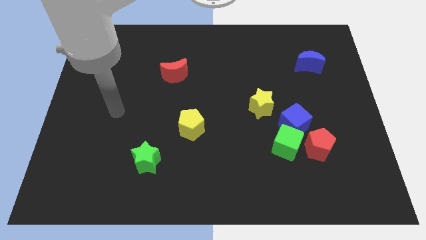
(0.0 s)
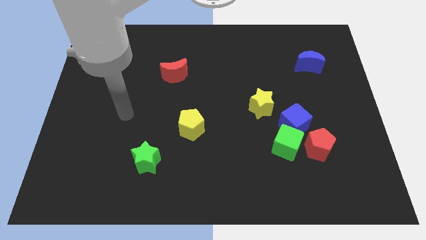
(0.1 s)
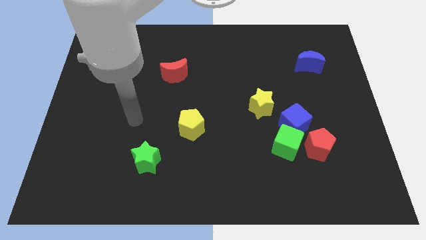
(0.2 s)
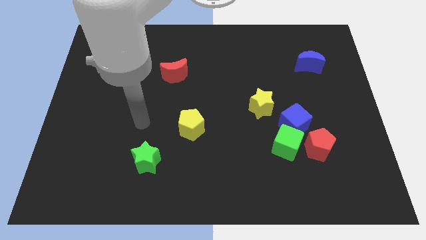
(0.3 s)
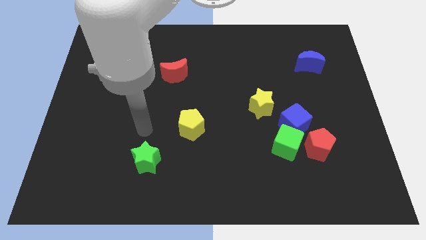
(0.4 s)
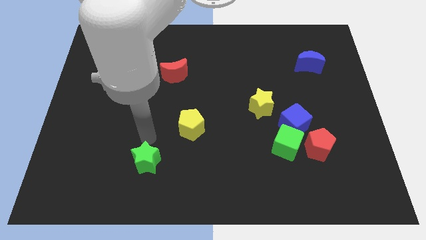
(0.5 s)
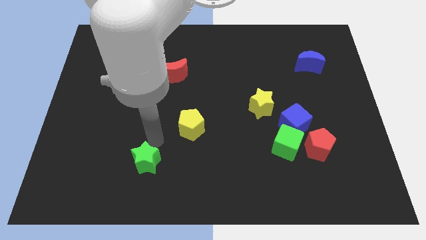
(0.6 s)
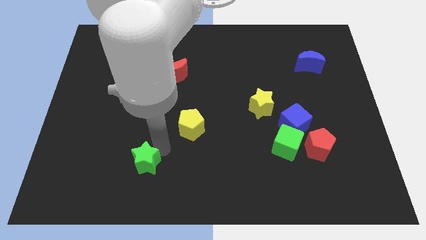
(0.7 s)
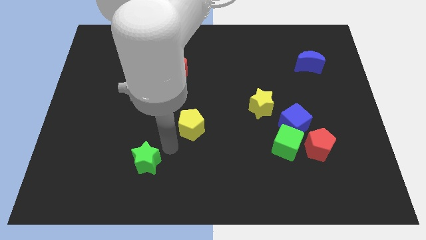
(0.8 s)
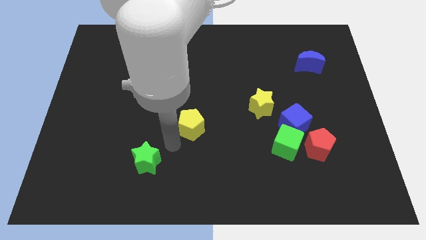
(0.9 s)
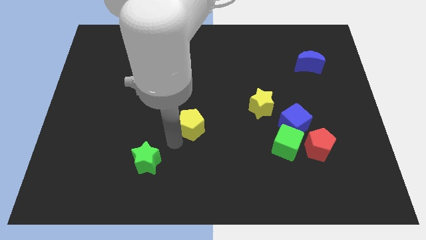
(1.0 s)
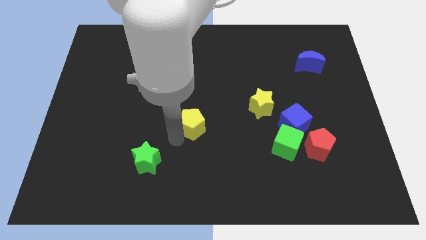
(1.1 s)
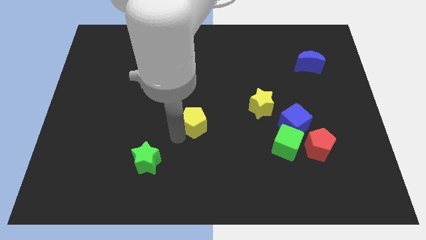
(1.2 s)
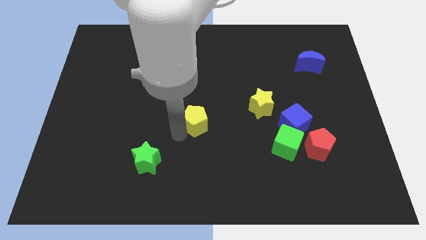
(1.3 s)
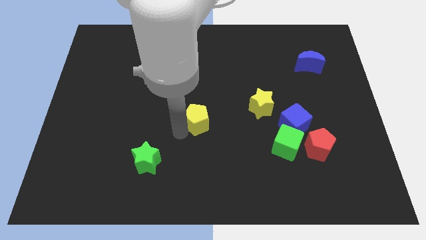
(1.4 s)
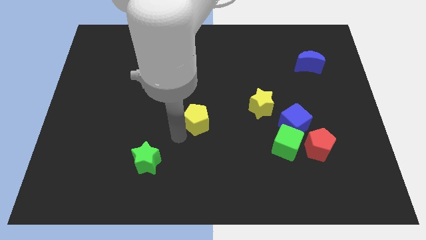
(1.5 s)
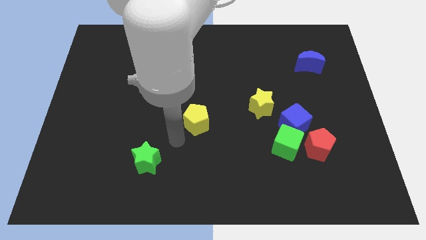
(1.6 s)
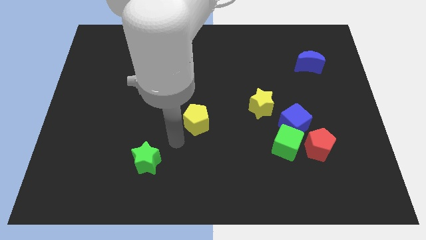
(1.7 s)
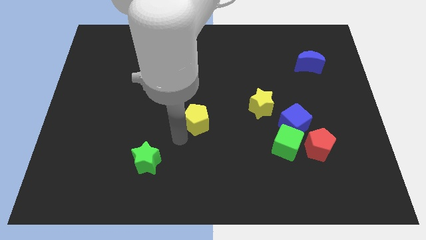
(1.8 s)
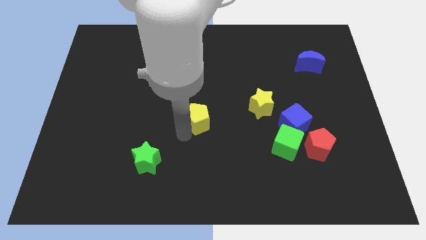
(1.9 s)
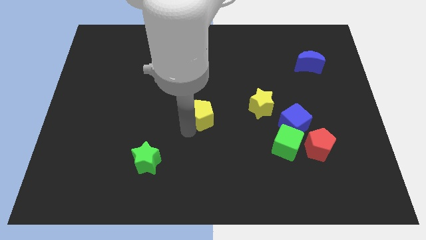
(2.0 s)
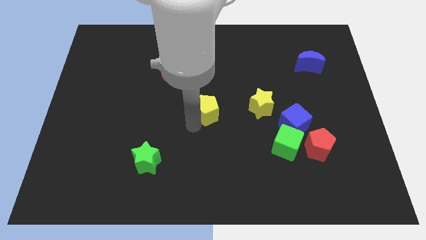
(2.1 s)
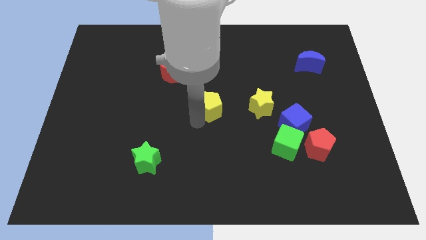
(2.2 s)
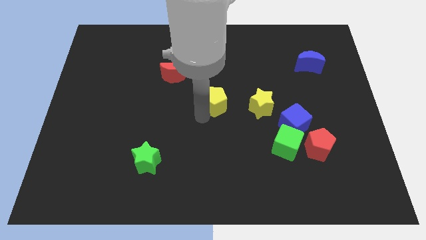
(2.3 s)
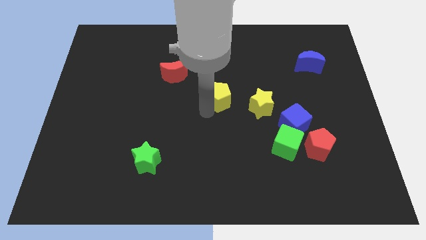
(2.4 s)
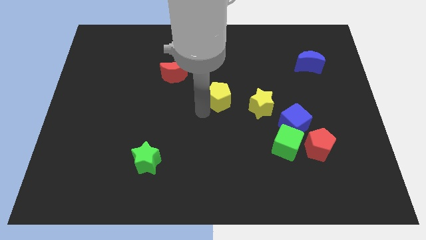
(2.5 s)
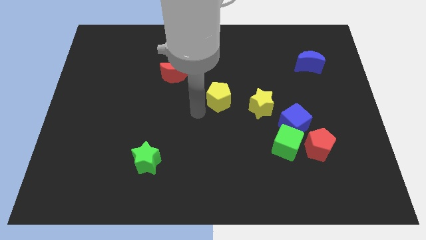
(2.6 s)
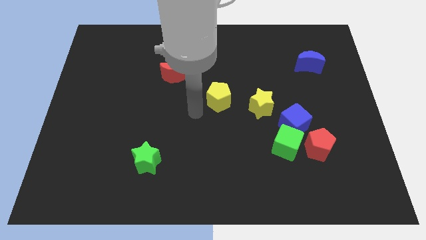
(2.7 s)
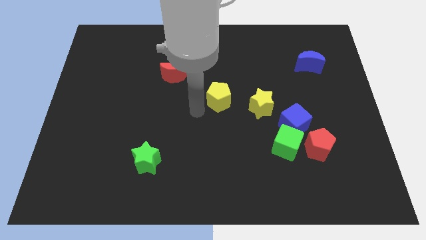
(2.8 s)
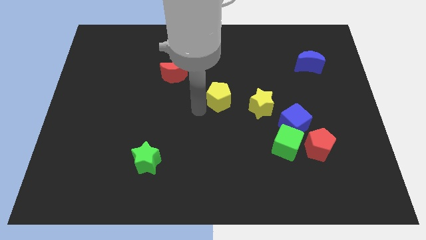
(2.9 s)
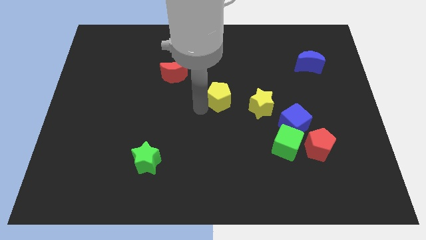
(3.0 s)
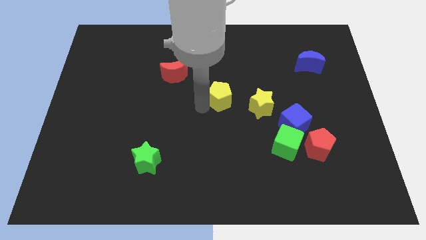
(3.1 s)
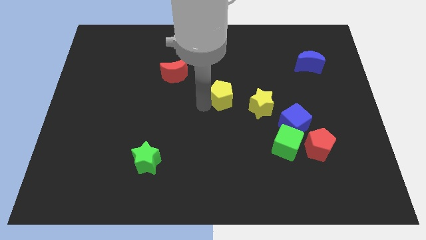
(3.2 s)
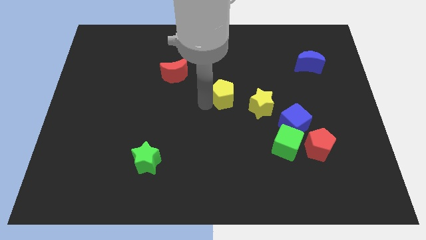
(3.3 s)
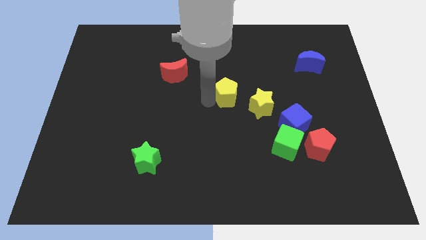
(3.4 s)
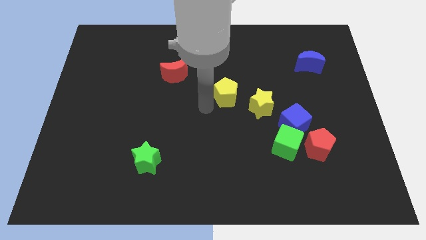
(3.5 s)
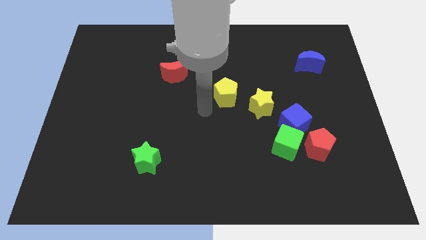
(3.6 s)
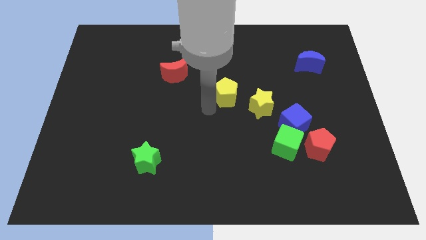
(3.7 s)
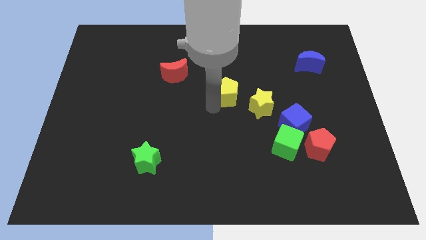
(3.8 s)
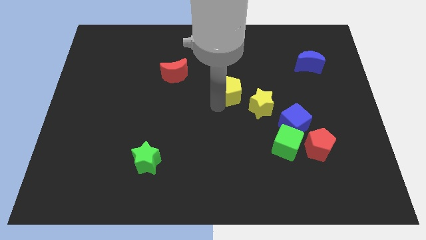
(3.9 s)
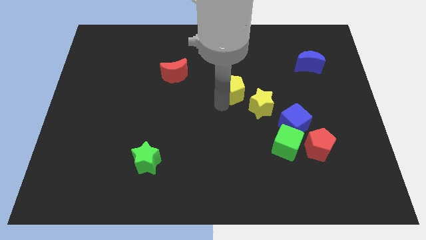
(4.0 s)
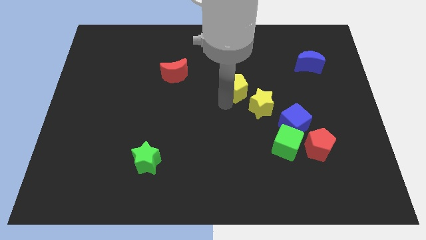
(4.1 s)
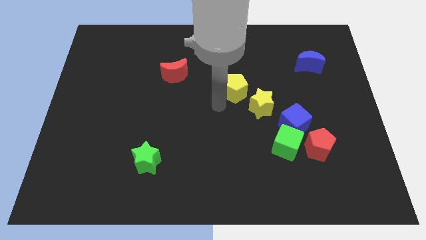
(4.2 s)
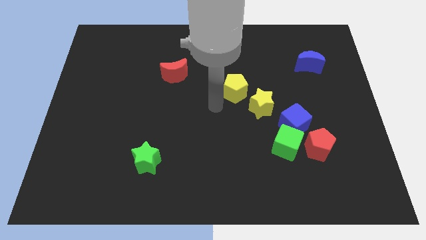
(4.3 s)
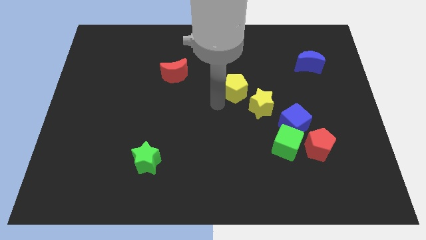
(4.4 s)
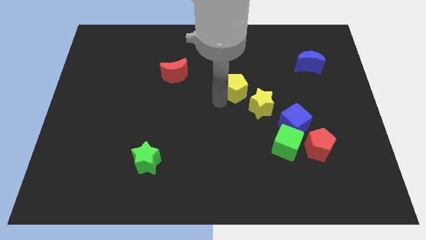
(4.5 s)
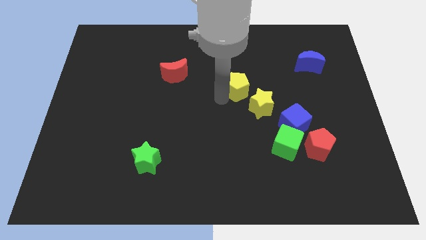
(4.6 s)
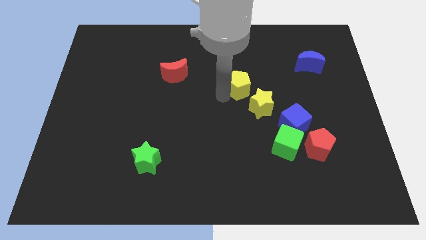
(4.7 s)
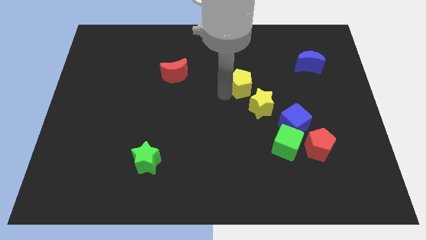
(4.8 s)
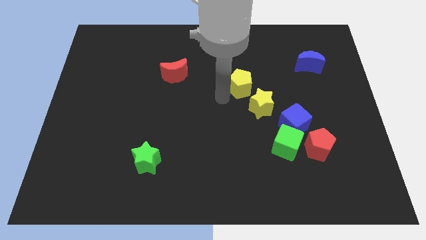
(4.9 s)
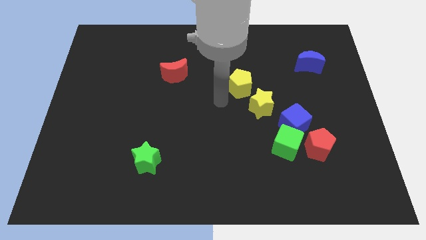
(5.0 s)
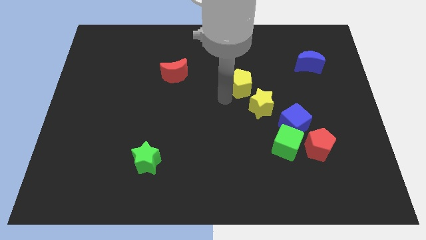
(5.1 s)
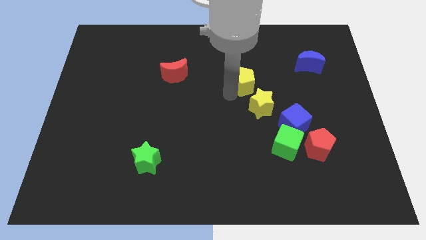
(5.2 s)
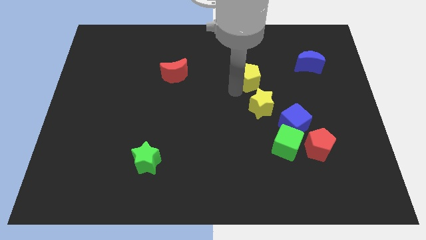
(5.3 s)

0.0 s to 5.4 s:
push the yellow pentagon up and to the right diagonally

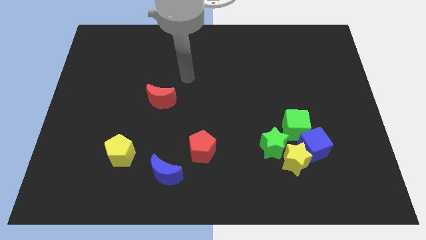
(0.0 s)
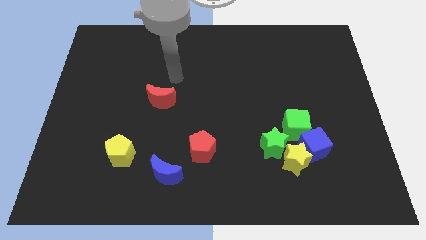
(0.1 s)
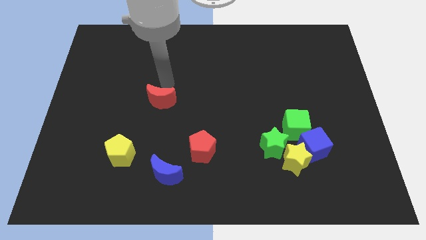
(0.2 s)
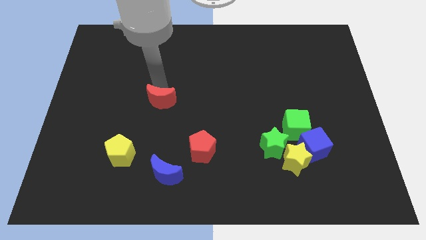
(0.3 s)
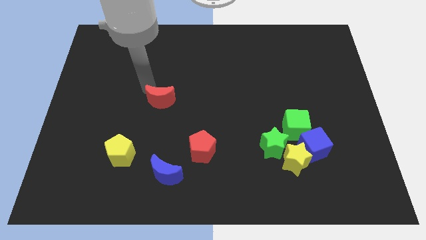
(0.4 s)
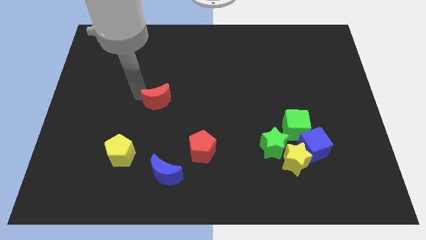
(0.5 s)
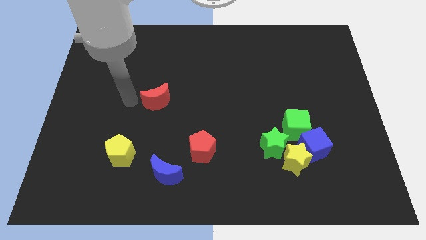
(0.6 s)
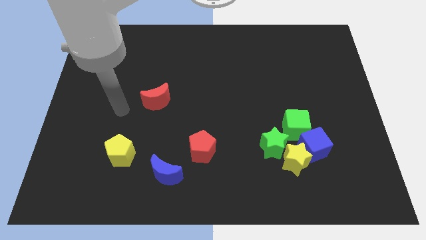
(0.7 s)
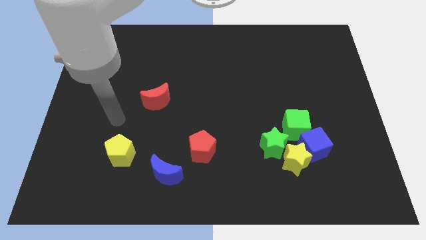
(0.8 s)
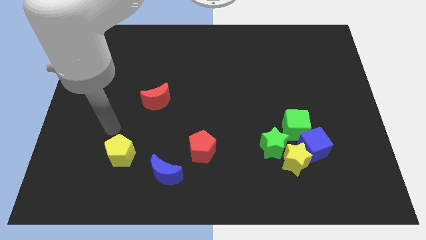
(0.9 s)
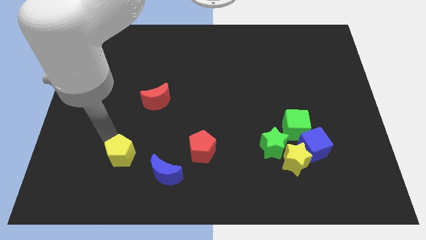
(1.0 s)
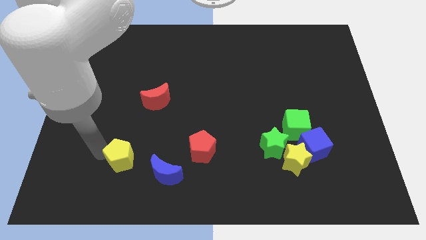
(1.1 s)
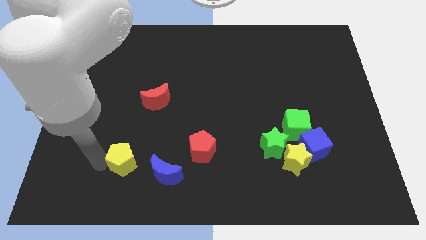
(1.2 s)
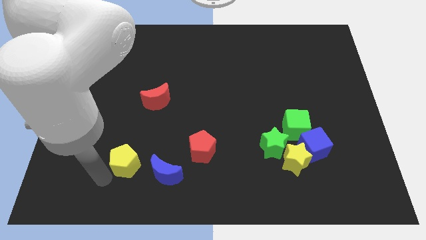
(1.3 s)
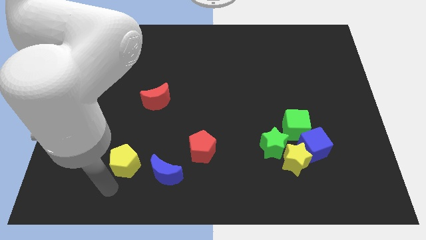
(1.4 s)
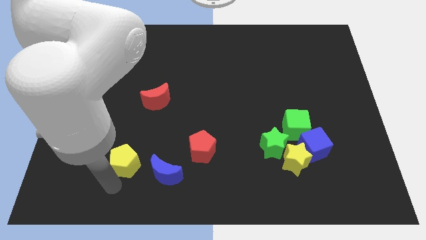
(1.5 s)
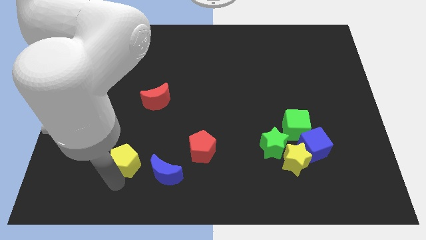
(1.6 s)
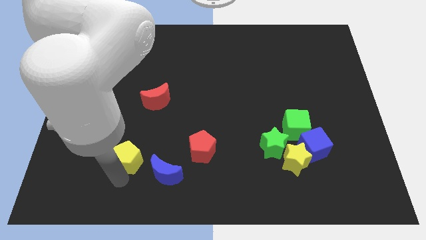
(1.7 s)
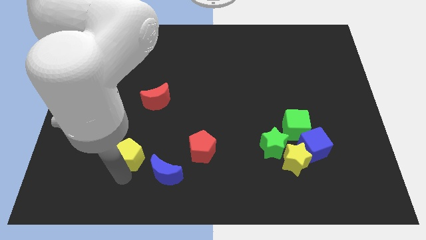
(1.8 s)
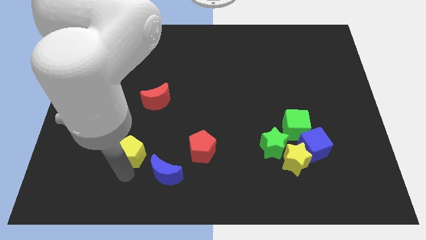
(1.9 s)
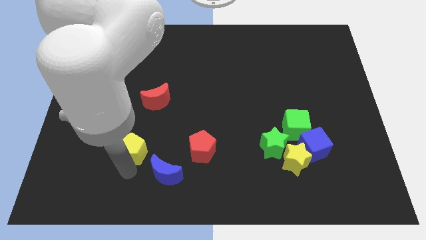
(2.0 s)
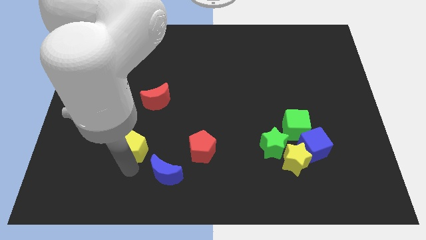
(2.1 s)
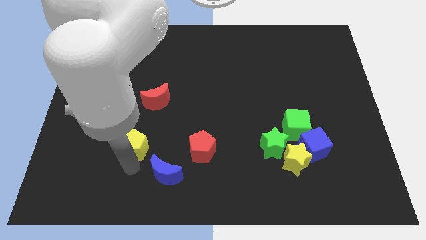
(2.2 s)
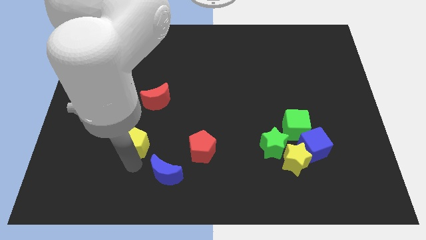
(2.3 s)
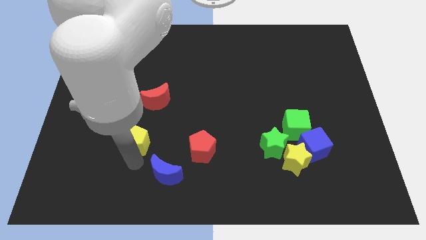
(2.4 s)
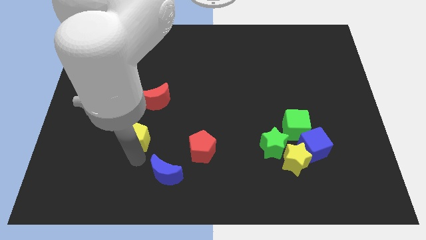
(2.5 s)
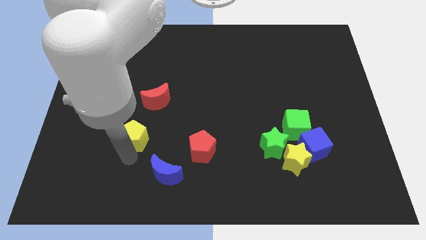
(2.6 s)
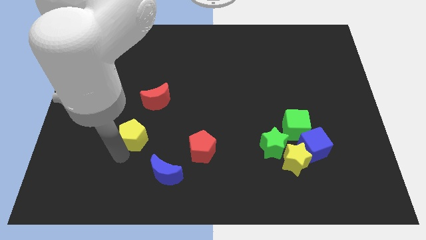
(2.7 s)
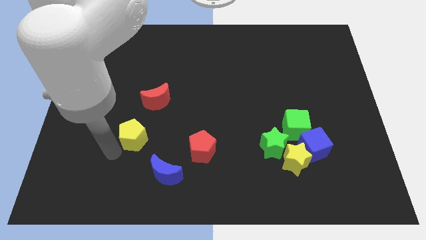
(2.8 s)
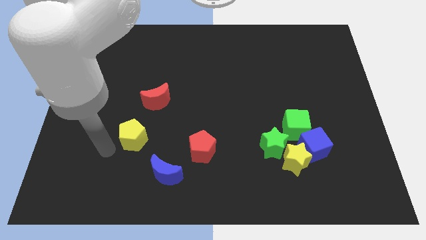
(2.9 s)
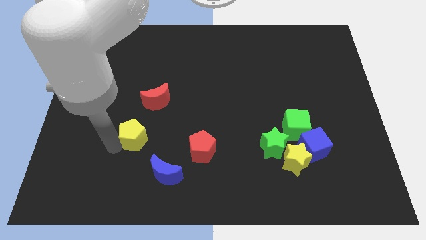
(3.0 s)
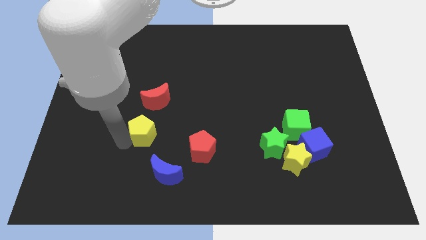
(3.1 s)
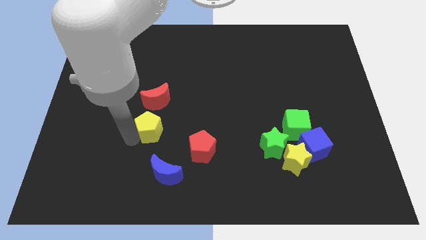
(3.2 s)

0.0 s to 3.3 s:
move the yellow pentagon up and to the right a little
